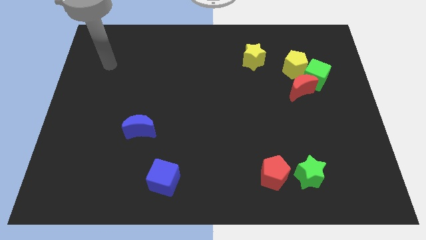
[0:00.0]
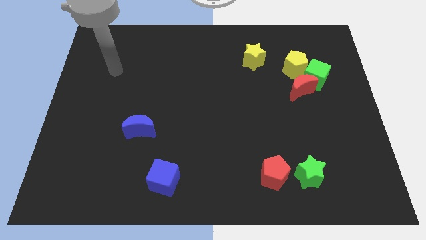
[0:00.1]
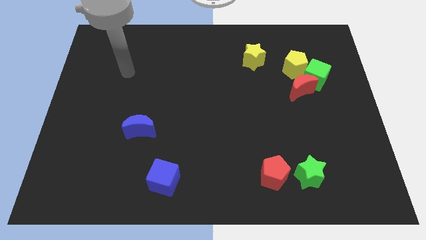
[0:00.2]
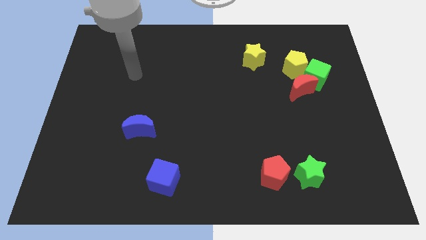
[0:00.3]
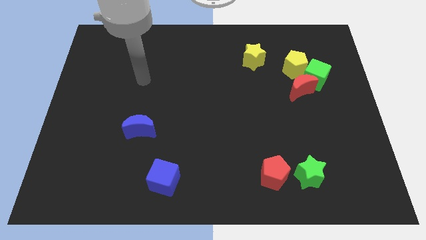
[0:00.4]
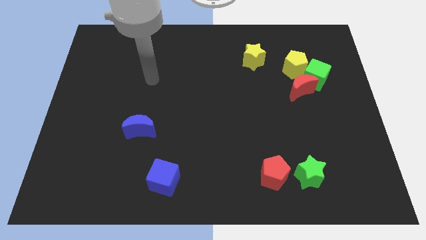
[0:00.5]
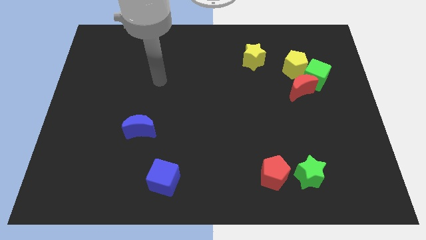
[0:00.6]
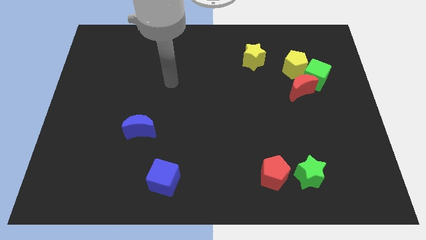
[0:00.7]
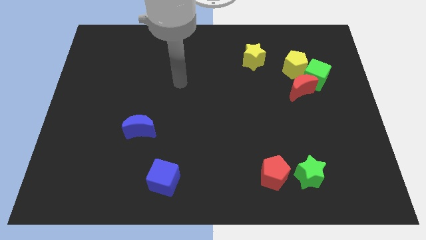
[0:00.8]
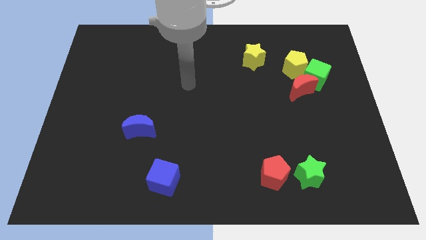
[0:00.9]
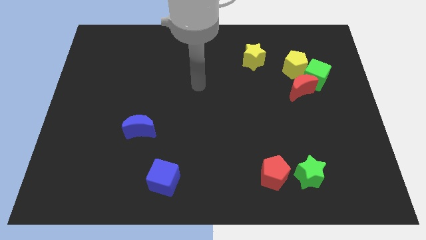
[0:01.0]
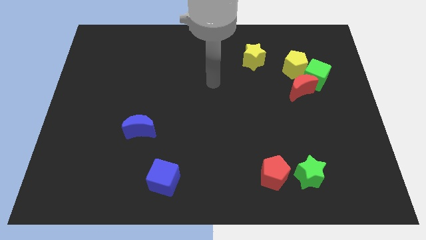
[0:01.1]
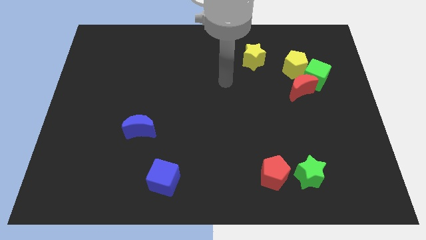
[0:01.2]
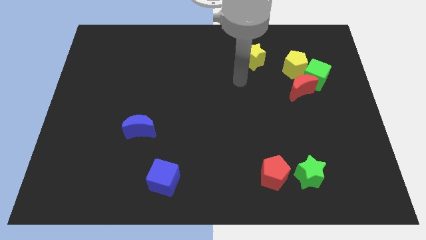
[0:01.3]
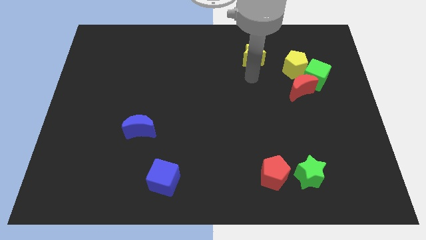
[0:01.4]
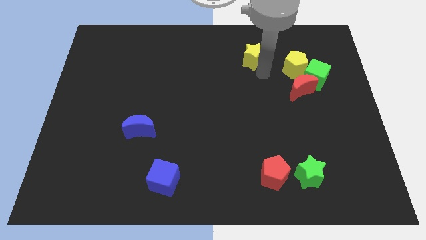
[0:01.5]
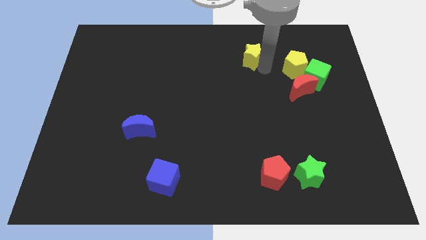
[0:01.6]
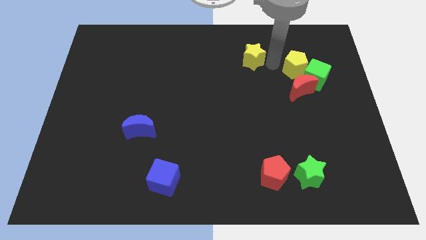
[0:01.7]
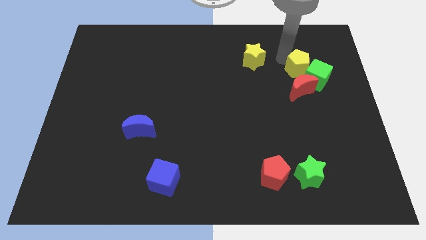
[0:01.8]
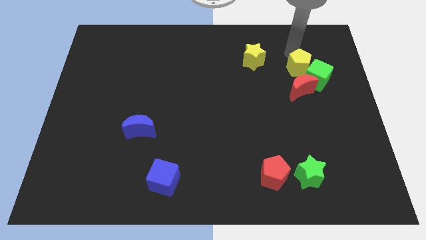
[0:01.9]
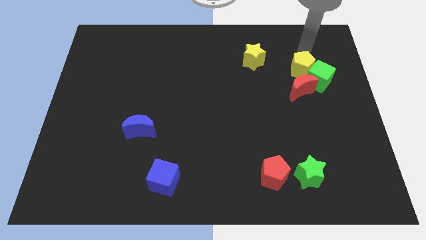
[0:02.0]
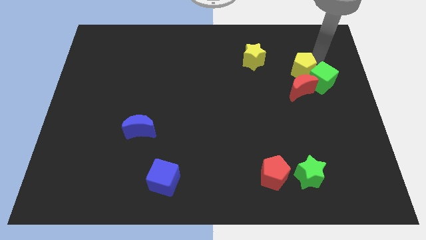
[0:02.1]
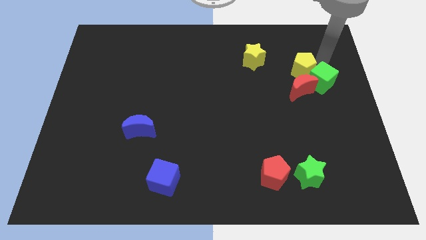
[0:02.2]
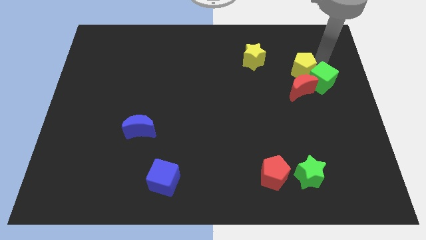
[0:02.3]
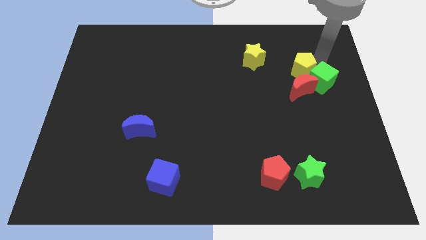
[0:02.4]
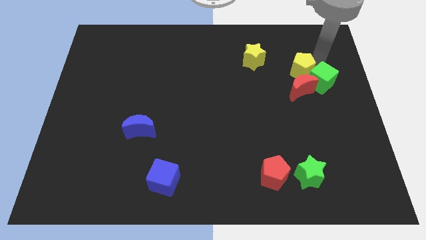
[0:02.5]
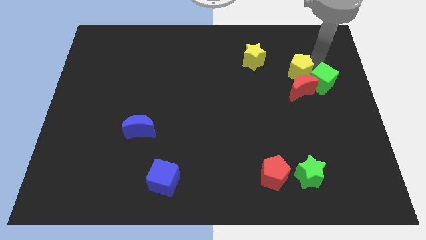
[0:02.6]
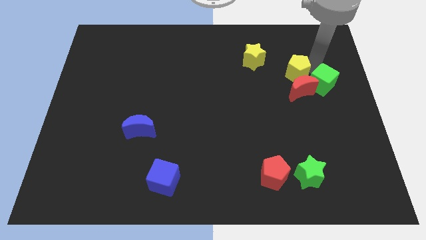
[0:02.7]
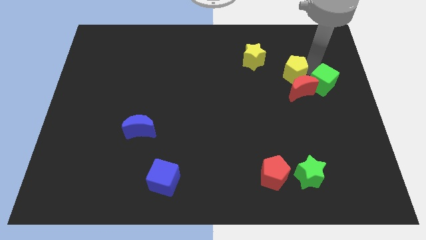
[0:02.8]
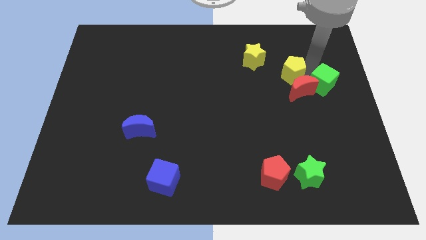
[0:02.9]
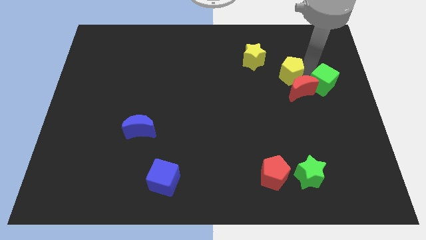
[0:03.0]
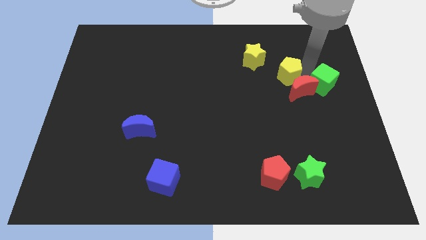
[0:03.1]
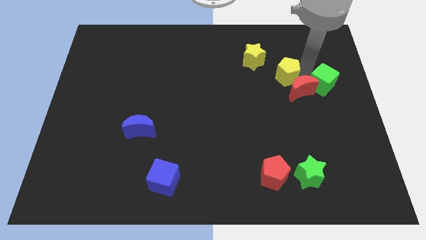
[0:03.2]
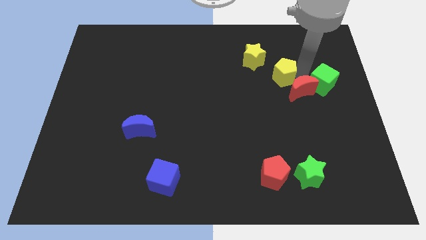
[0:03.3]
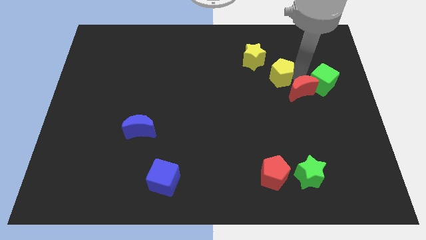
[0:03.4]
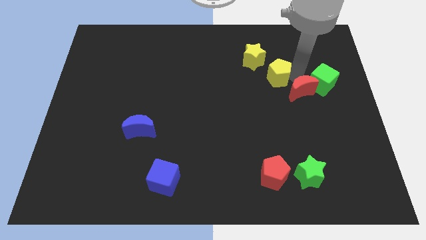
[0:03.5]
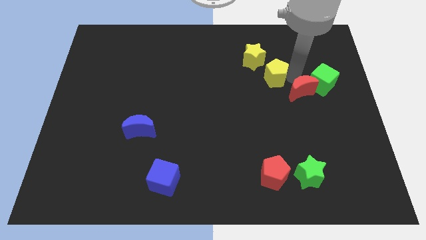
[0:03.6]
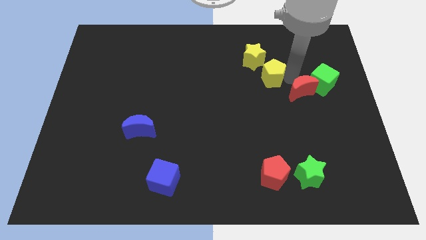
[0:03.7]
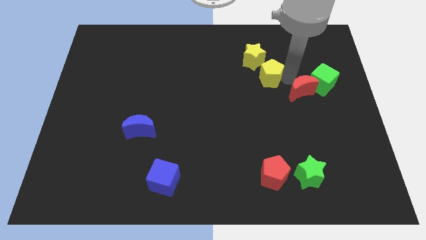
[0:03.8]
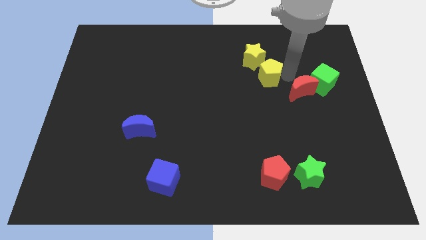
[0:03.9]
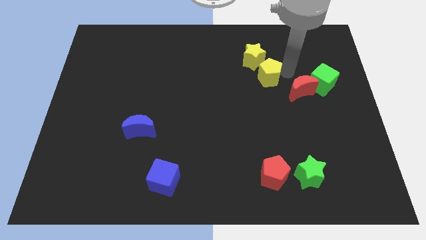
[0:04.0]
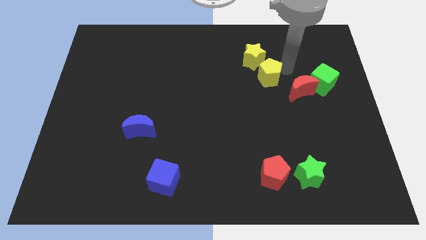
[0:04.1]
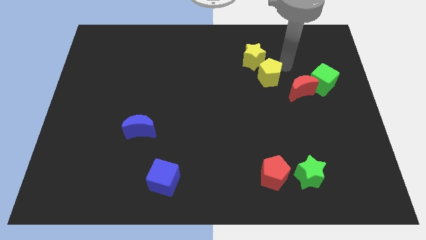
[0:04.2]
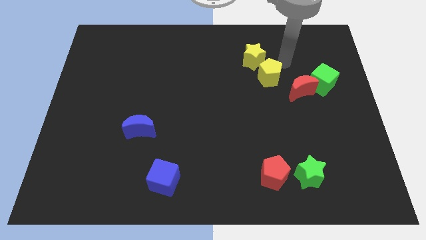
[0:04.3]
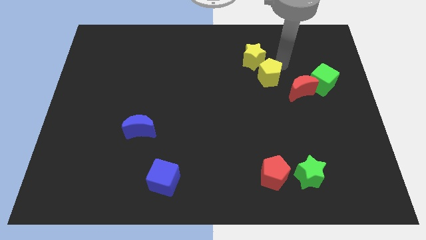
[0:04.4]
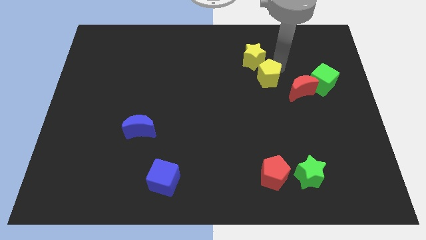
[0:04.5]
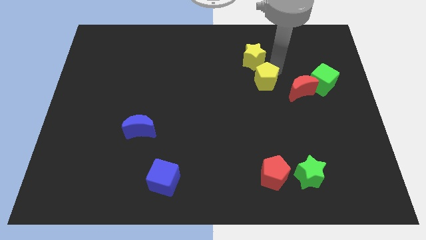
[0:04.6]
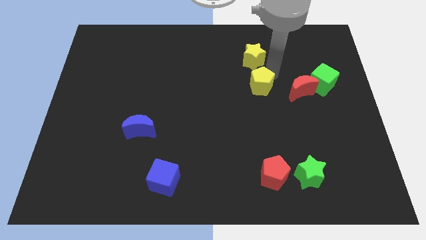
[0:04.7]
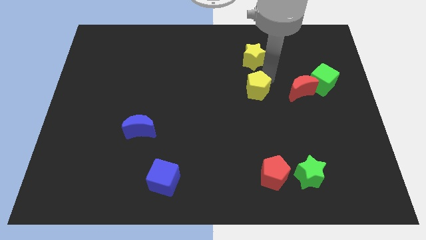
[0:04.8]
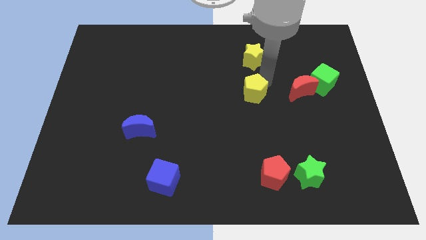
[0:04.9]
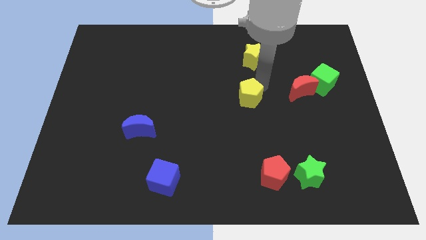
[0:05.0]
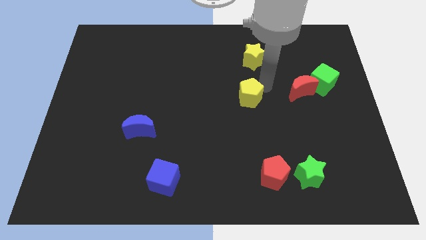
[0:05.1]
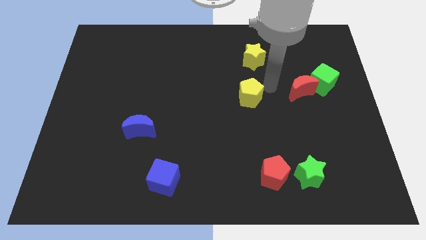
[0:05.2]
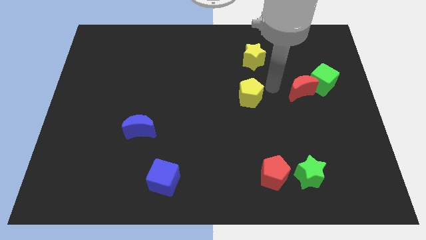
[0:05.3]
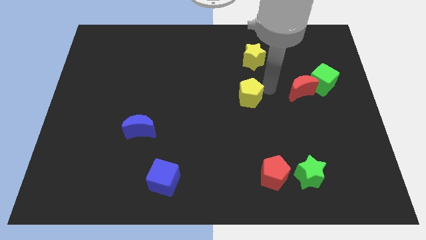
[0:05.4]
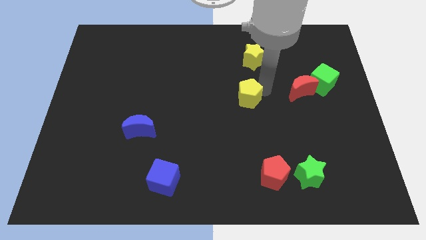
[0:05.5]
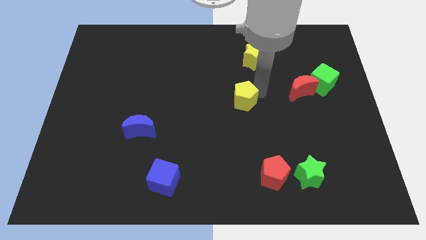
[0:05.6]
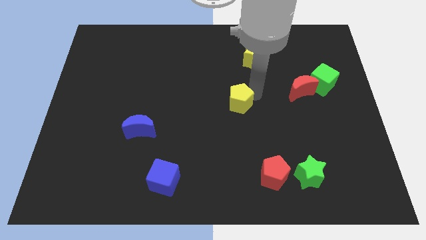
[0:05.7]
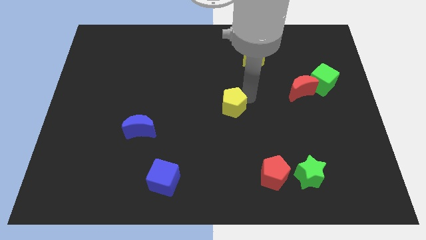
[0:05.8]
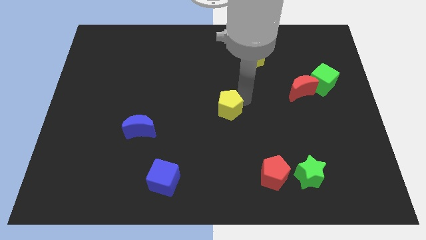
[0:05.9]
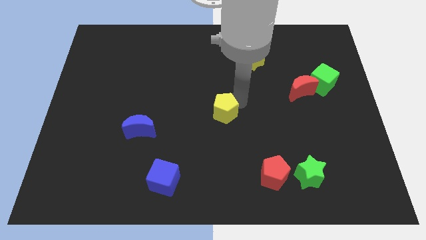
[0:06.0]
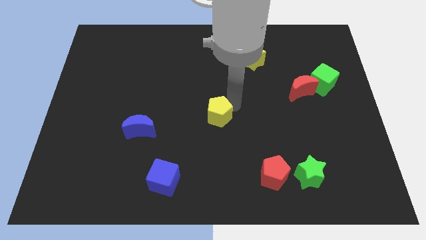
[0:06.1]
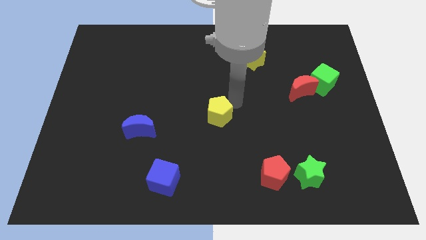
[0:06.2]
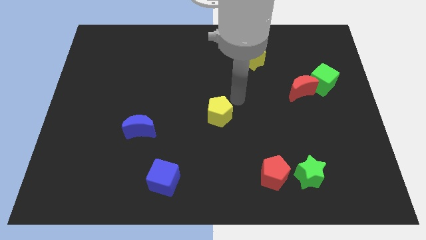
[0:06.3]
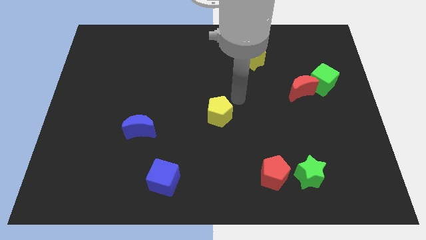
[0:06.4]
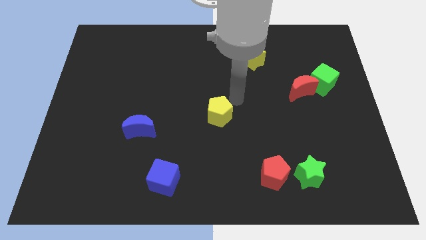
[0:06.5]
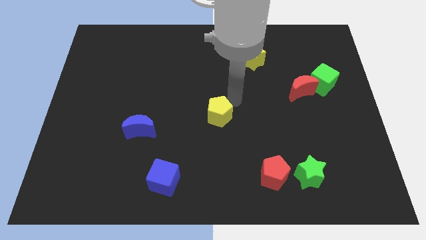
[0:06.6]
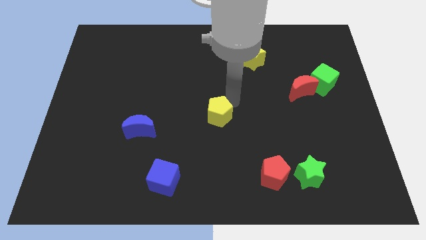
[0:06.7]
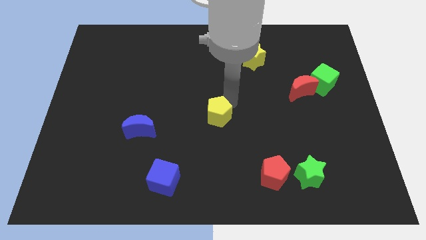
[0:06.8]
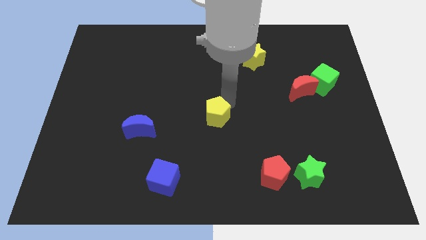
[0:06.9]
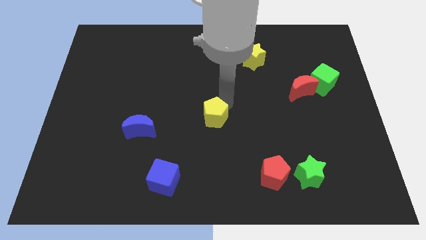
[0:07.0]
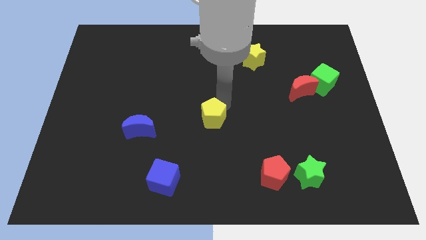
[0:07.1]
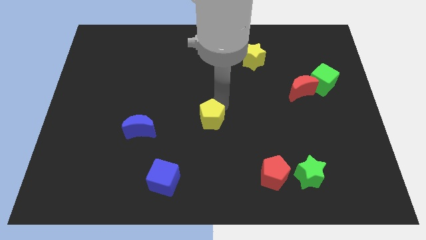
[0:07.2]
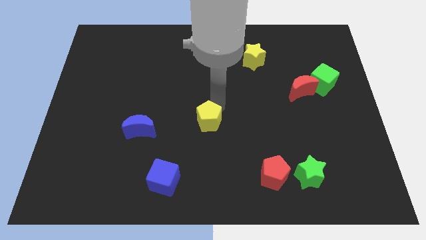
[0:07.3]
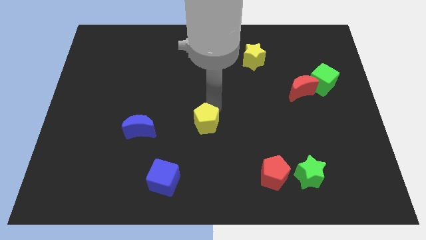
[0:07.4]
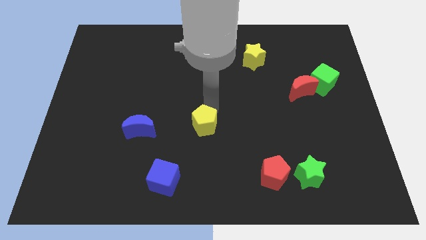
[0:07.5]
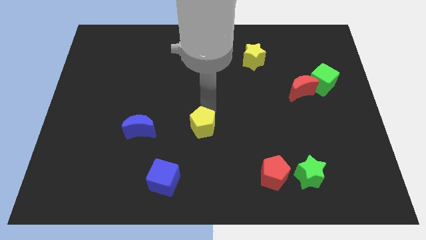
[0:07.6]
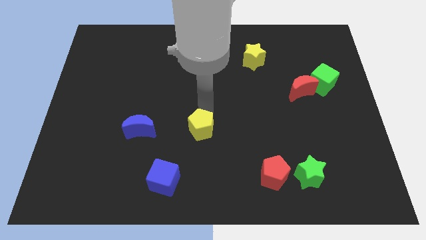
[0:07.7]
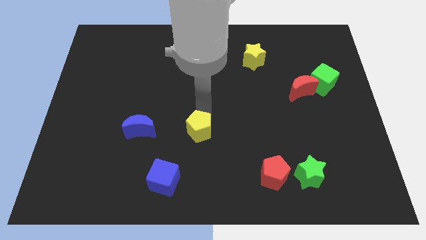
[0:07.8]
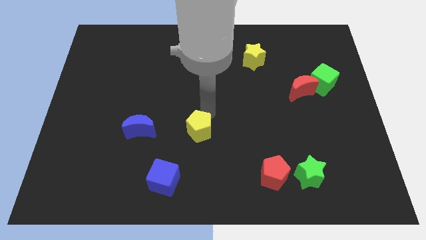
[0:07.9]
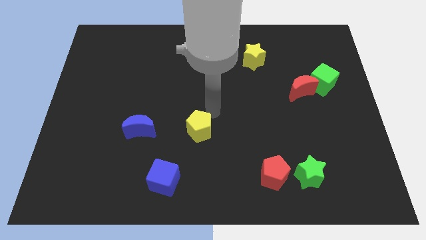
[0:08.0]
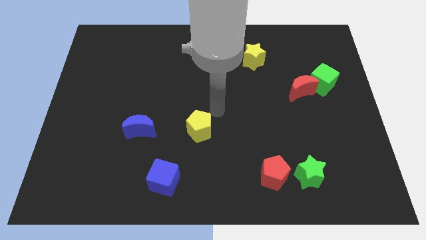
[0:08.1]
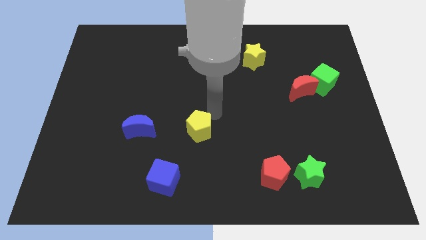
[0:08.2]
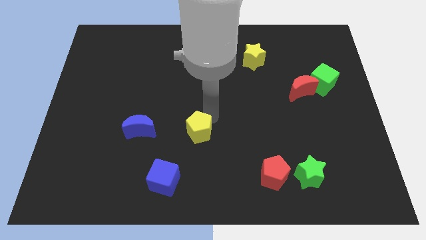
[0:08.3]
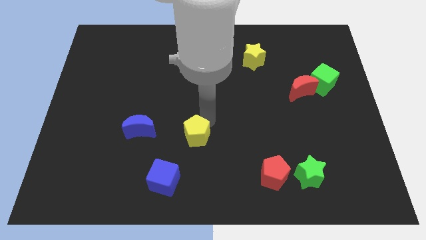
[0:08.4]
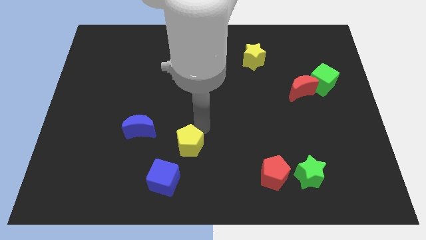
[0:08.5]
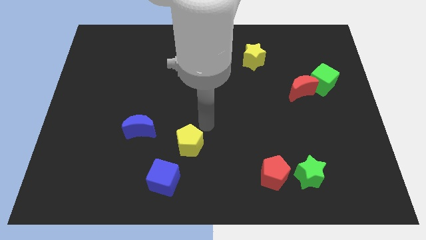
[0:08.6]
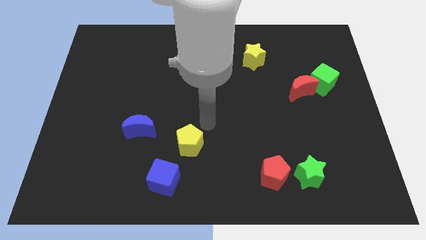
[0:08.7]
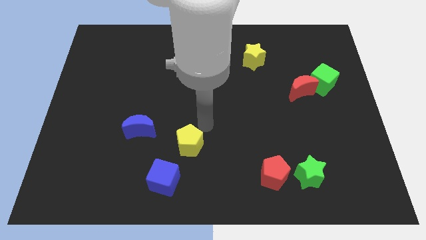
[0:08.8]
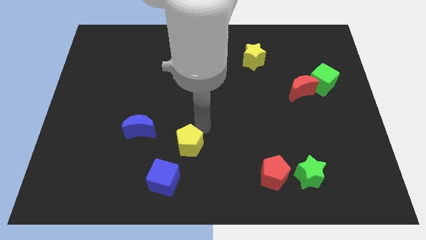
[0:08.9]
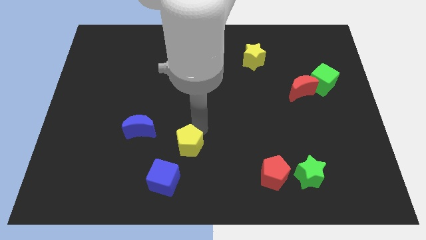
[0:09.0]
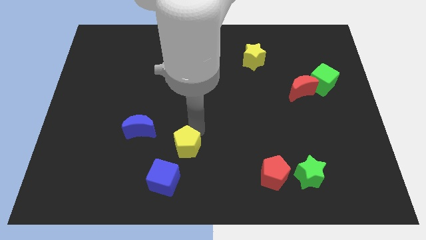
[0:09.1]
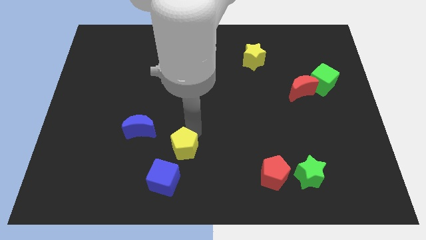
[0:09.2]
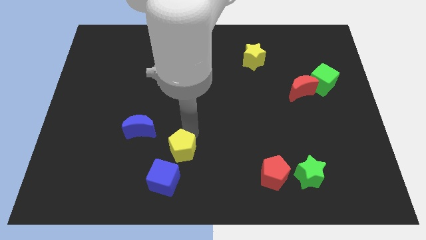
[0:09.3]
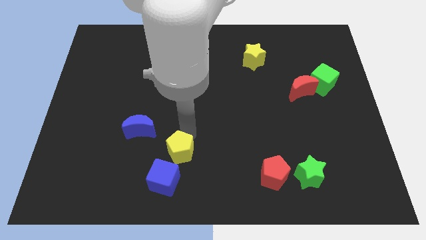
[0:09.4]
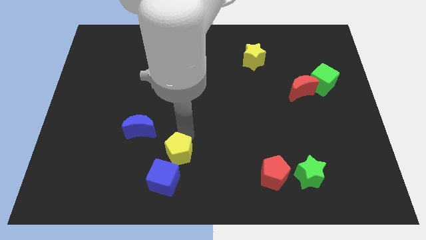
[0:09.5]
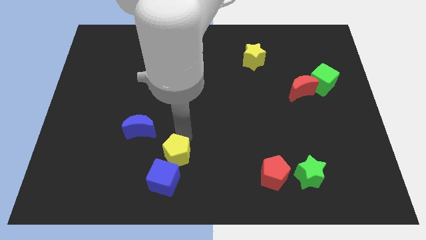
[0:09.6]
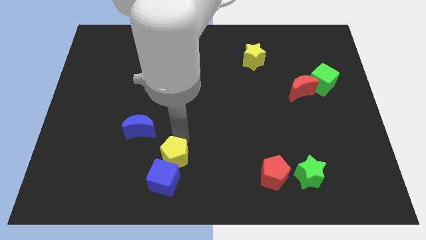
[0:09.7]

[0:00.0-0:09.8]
slide the yellow pentagon close to the blue cube
